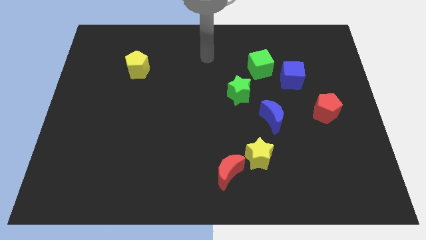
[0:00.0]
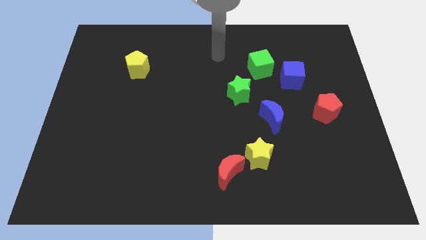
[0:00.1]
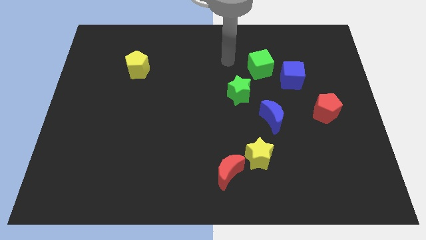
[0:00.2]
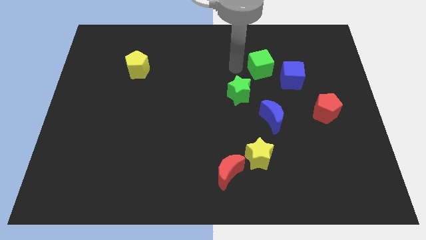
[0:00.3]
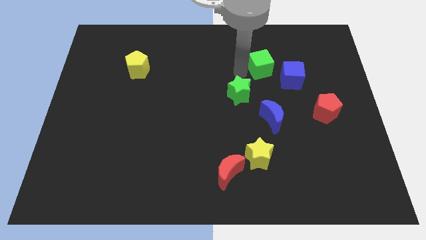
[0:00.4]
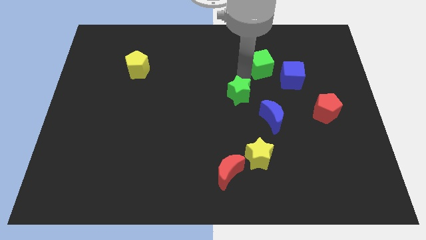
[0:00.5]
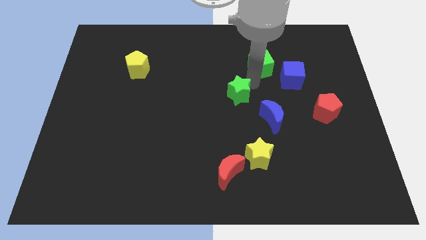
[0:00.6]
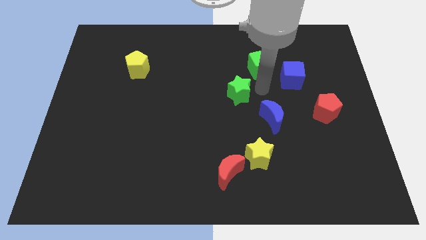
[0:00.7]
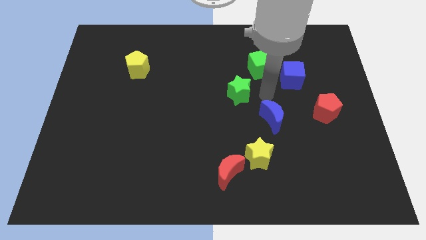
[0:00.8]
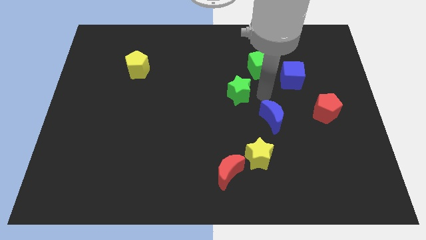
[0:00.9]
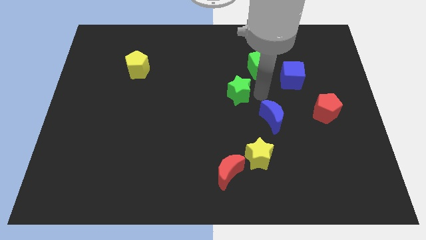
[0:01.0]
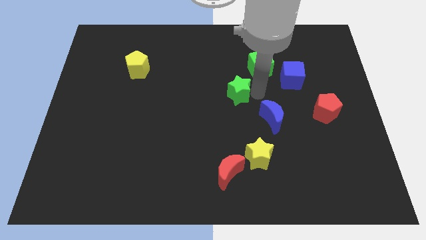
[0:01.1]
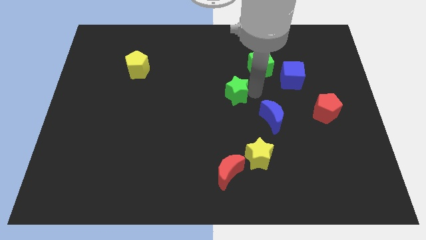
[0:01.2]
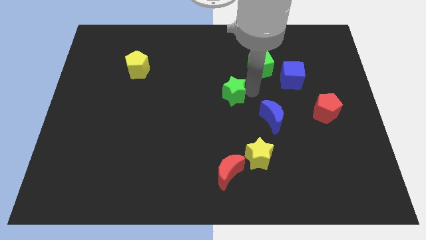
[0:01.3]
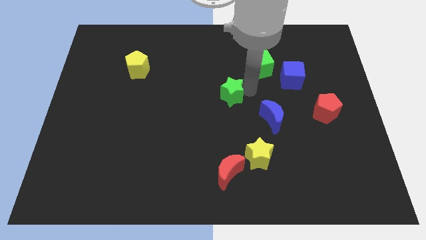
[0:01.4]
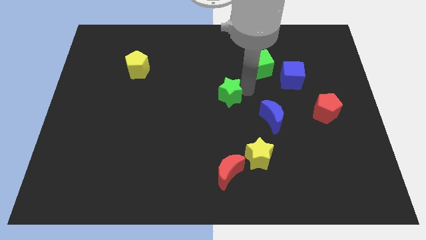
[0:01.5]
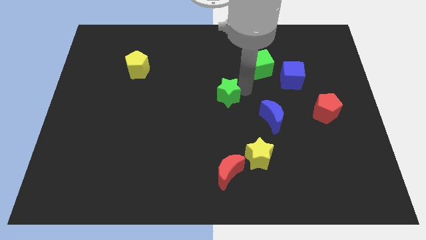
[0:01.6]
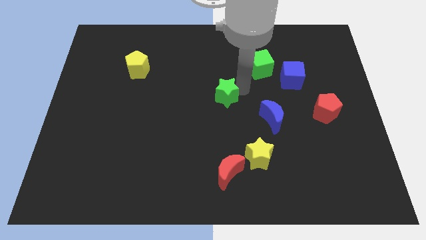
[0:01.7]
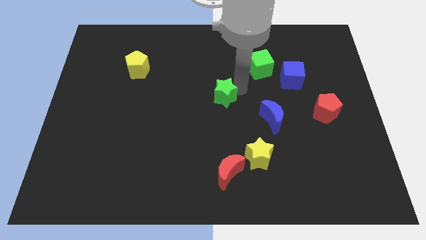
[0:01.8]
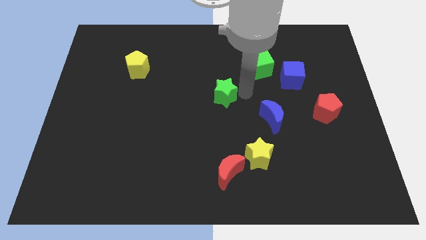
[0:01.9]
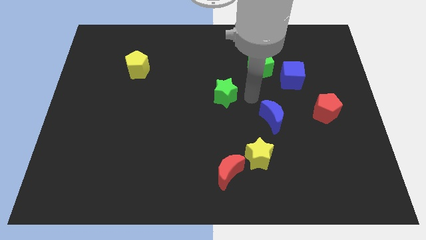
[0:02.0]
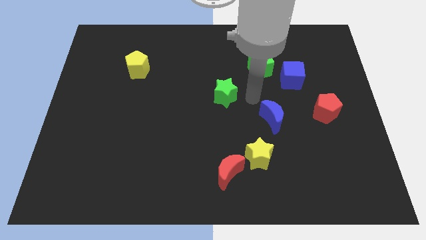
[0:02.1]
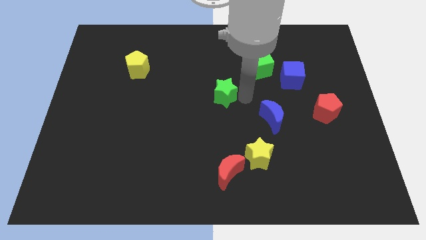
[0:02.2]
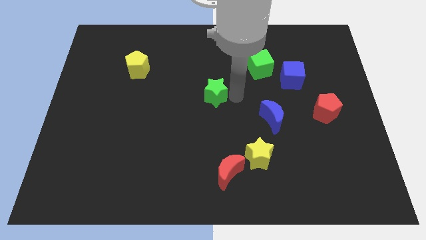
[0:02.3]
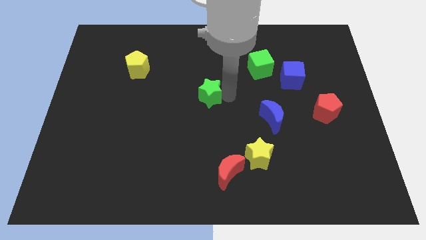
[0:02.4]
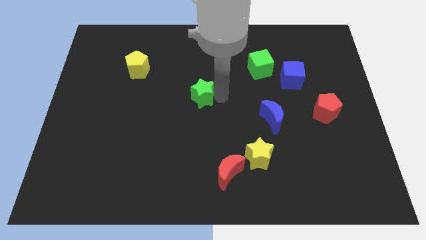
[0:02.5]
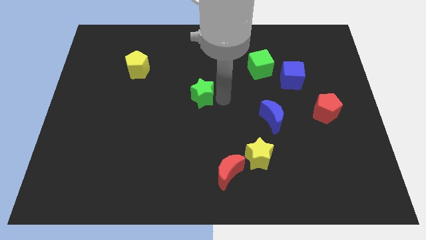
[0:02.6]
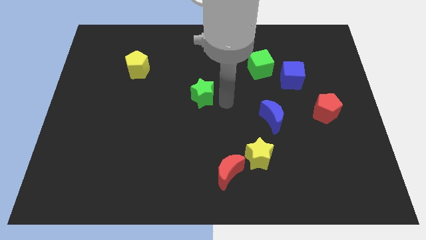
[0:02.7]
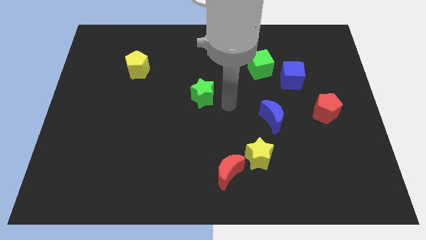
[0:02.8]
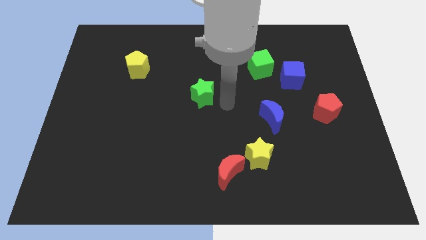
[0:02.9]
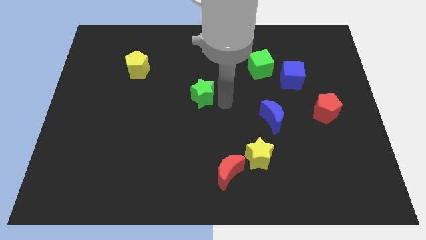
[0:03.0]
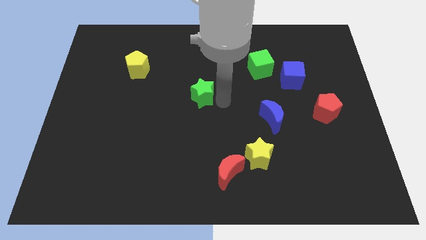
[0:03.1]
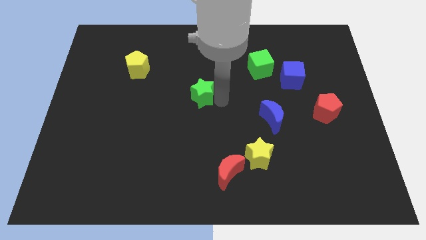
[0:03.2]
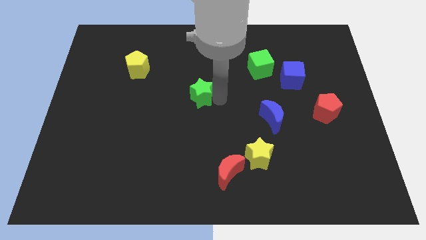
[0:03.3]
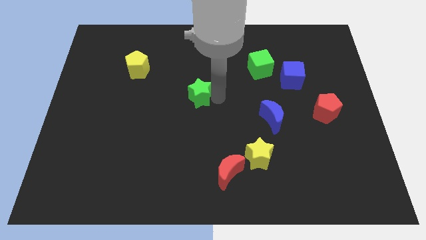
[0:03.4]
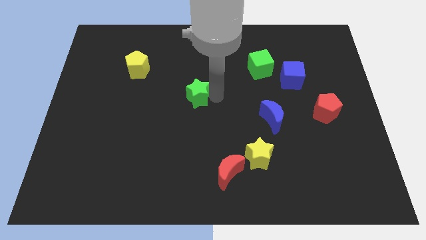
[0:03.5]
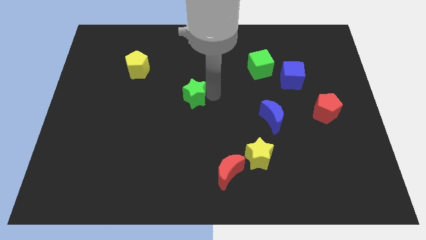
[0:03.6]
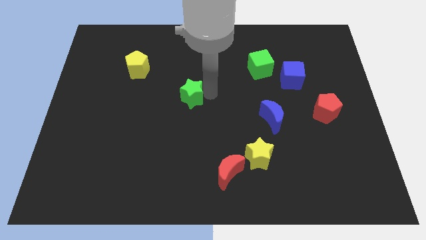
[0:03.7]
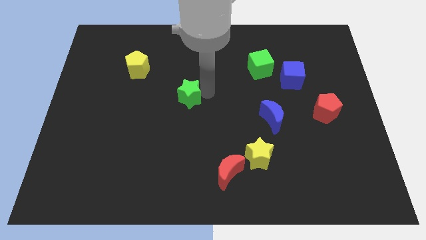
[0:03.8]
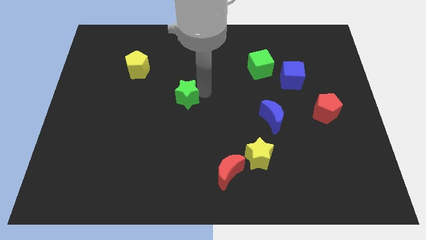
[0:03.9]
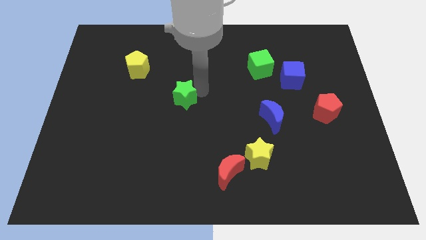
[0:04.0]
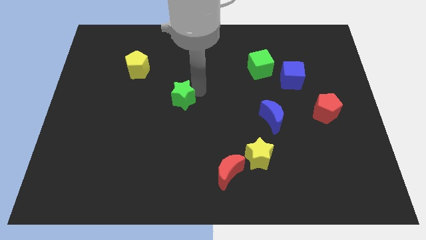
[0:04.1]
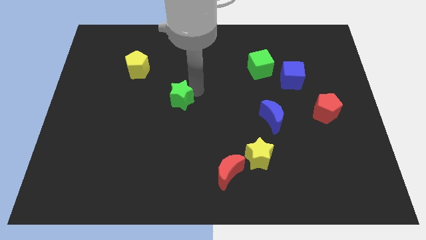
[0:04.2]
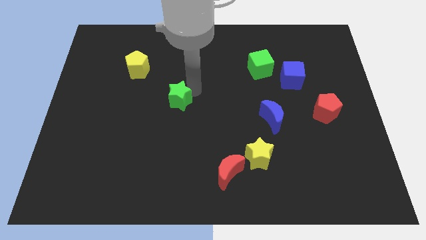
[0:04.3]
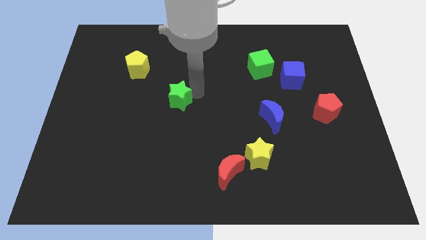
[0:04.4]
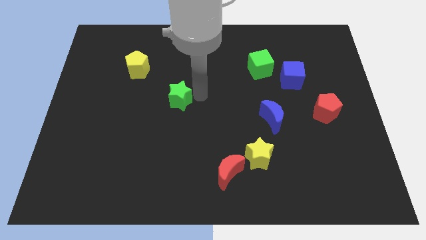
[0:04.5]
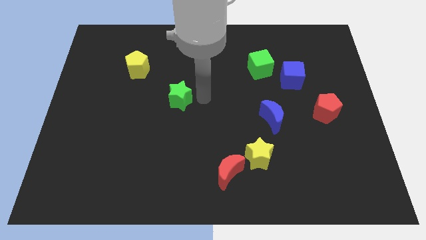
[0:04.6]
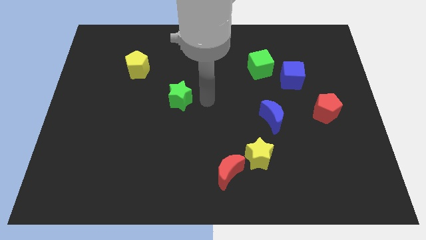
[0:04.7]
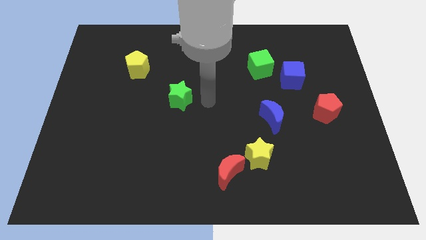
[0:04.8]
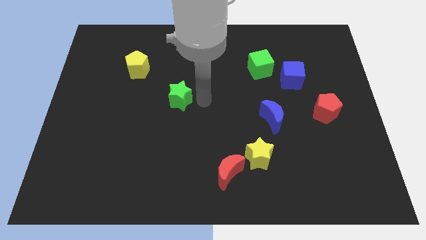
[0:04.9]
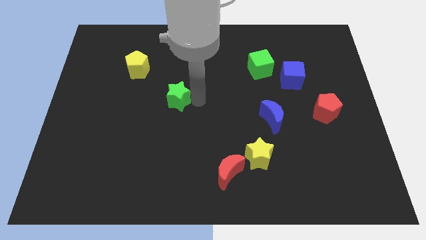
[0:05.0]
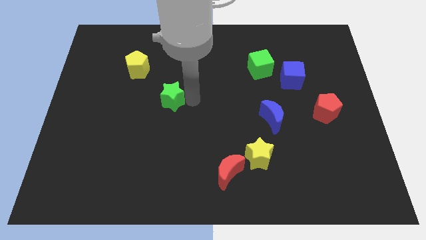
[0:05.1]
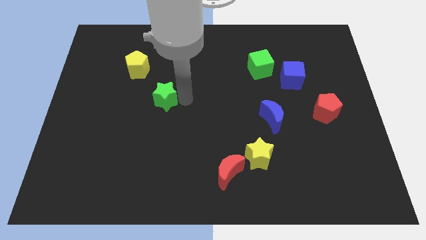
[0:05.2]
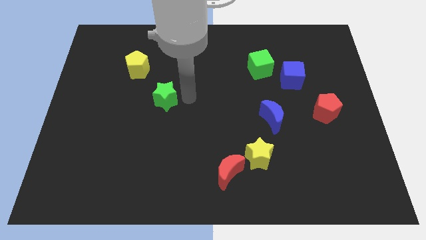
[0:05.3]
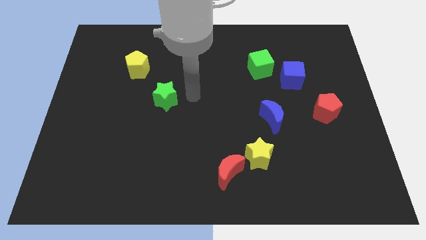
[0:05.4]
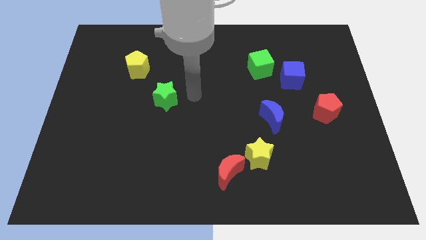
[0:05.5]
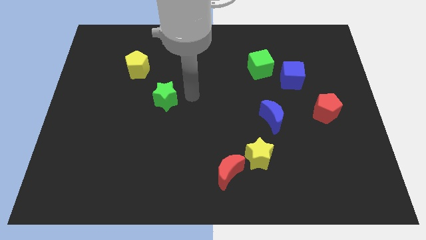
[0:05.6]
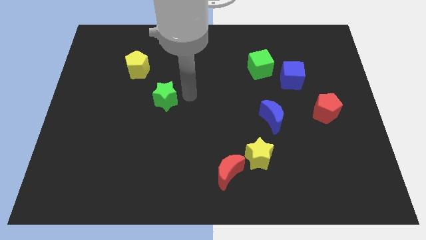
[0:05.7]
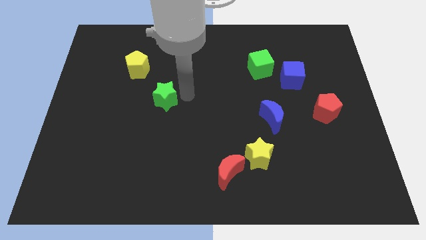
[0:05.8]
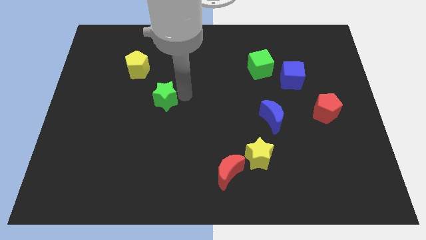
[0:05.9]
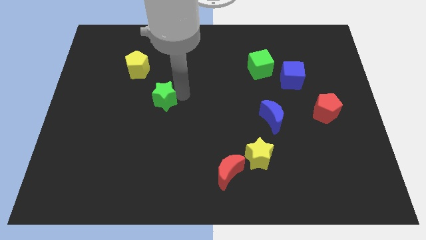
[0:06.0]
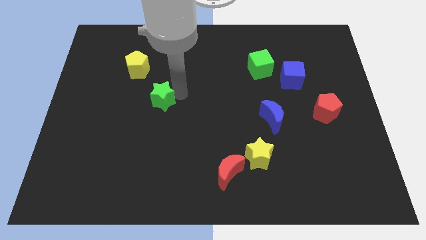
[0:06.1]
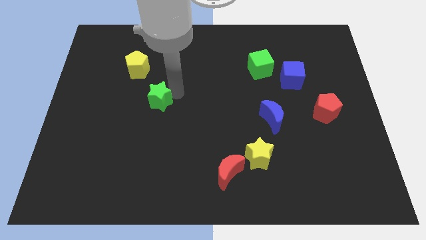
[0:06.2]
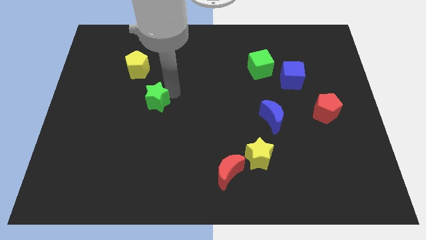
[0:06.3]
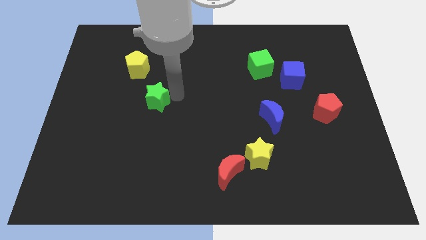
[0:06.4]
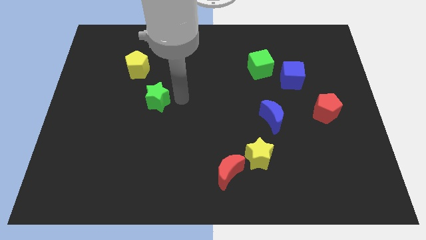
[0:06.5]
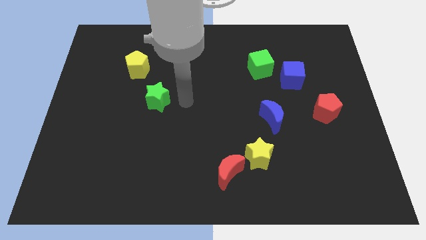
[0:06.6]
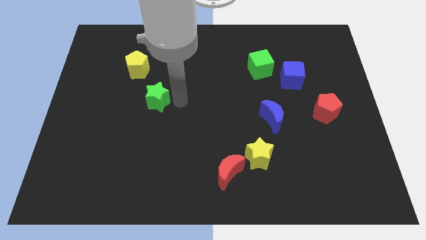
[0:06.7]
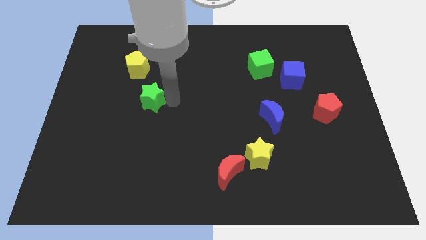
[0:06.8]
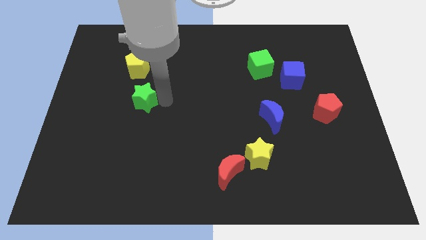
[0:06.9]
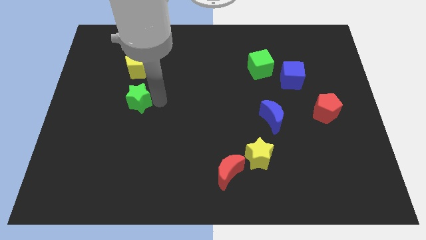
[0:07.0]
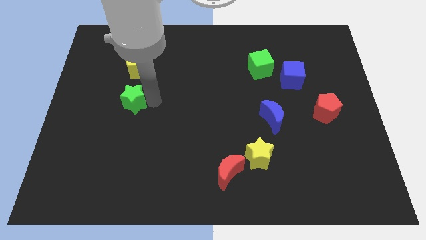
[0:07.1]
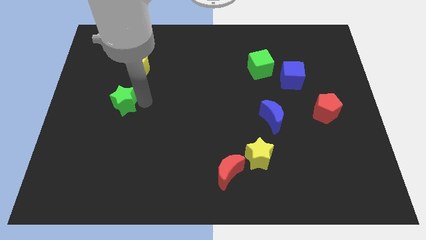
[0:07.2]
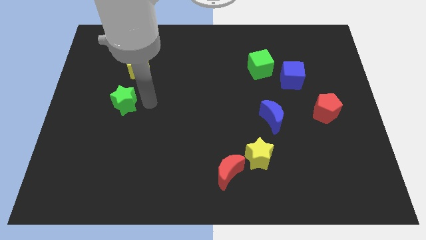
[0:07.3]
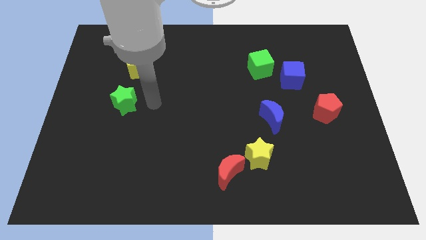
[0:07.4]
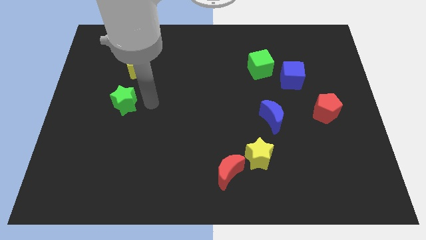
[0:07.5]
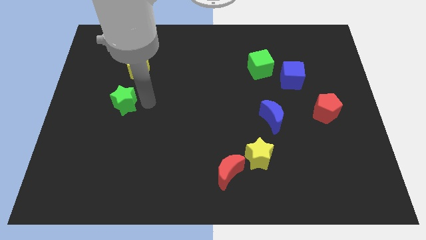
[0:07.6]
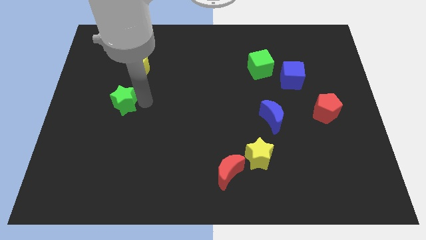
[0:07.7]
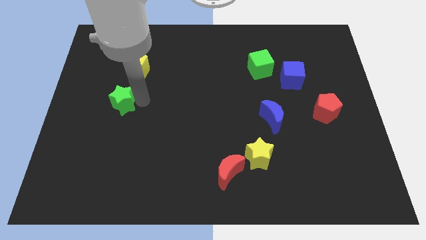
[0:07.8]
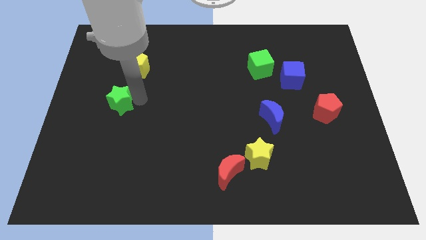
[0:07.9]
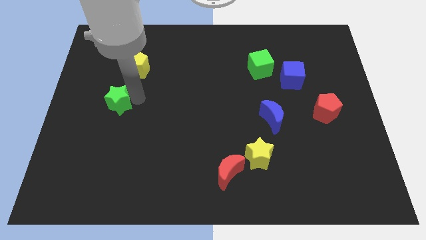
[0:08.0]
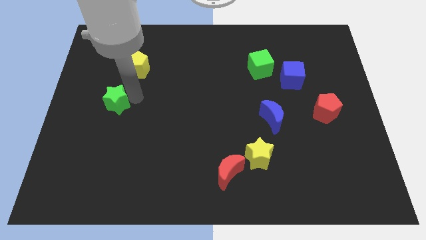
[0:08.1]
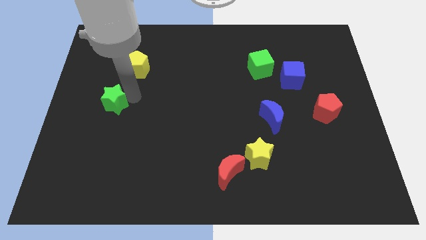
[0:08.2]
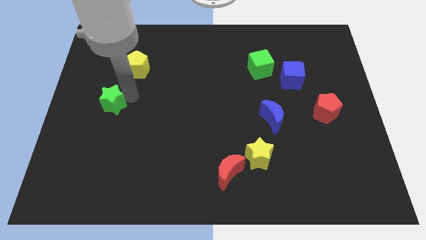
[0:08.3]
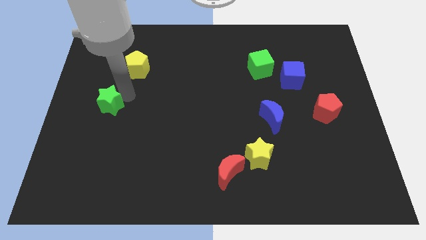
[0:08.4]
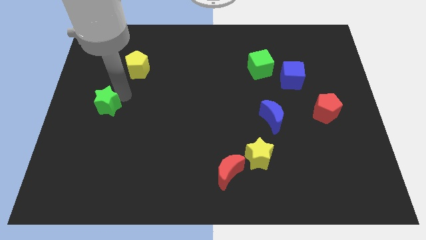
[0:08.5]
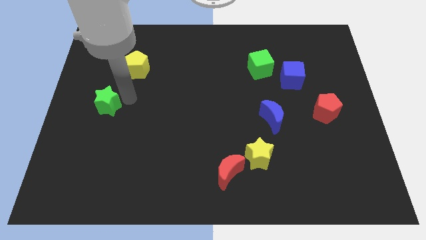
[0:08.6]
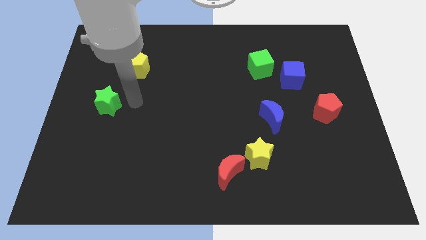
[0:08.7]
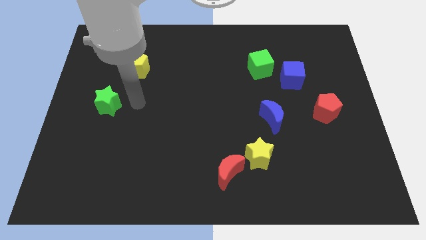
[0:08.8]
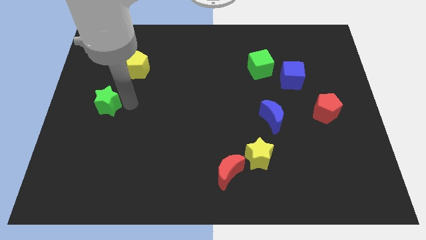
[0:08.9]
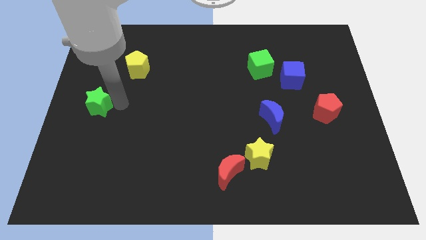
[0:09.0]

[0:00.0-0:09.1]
push the green star to the left side of the board
